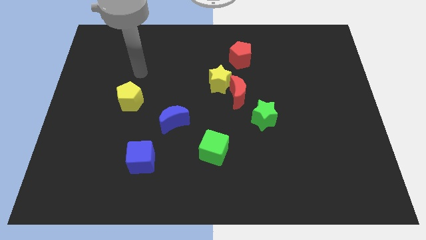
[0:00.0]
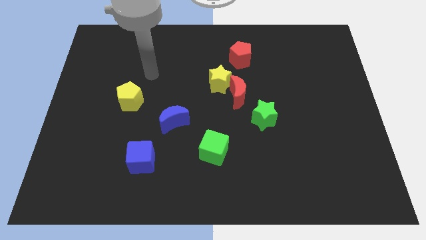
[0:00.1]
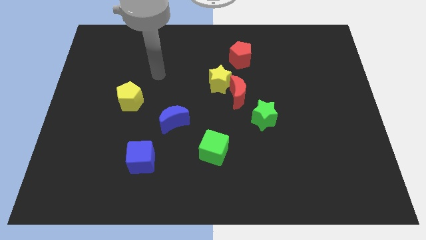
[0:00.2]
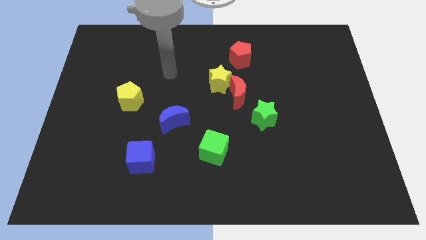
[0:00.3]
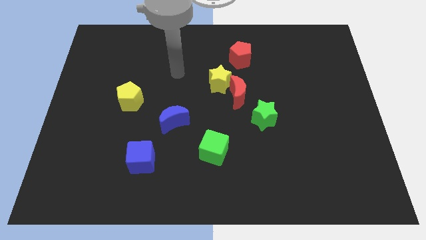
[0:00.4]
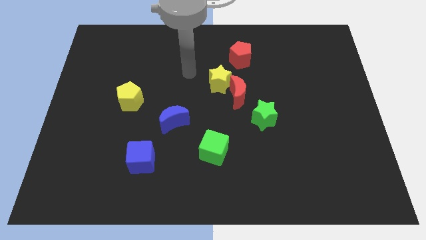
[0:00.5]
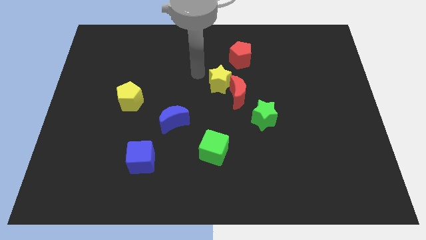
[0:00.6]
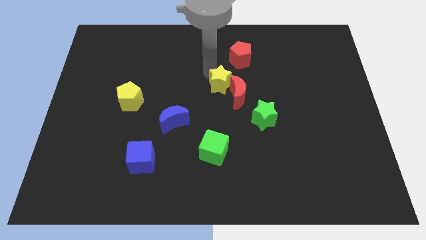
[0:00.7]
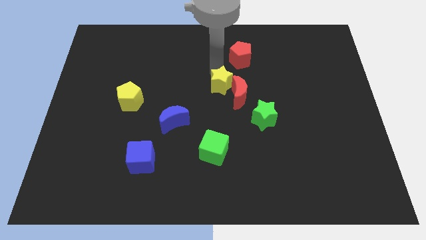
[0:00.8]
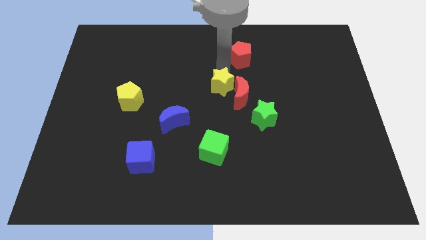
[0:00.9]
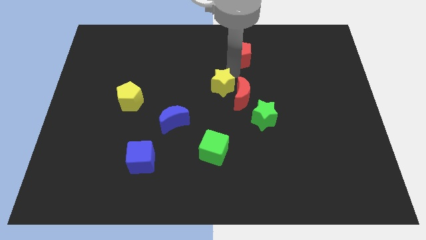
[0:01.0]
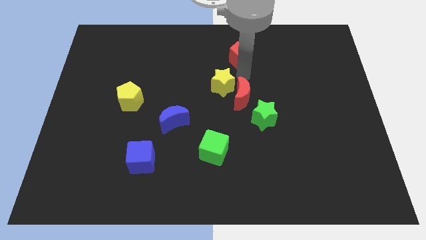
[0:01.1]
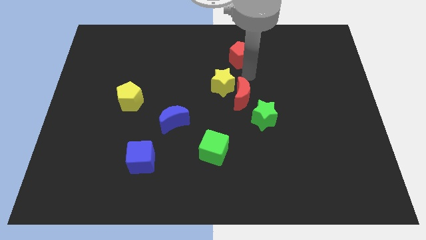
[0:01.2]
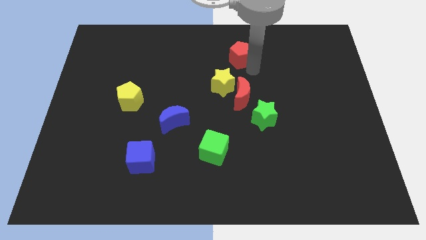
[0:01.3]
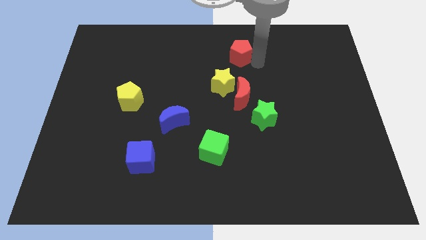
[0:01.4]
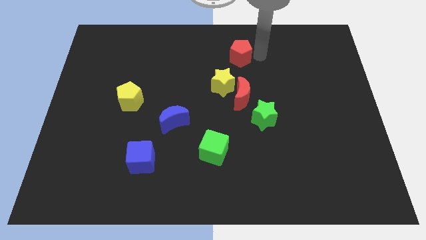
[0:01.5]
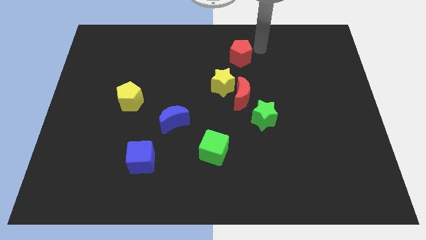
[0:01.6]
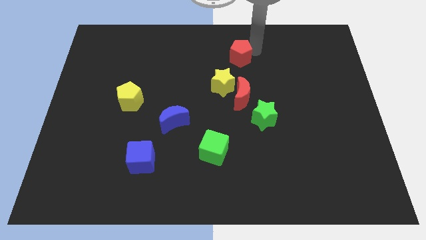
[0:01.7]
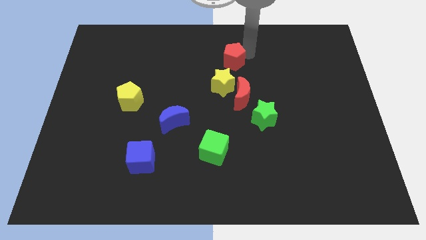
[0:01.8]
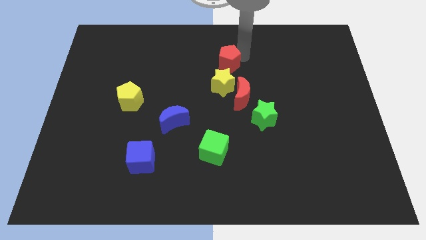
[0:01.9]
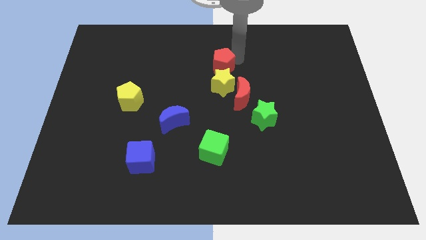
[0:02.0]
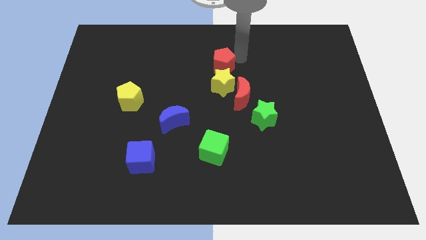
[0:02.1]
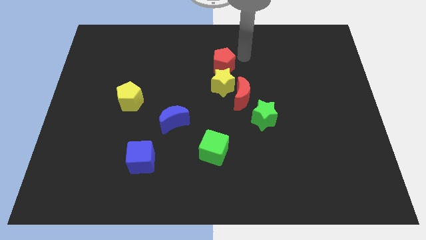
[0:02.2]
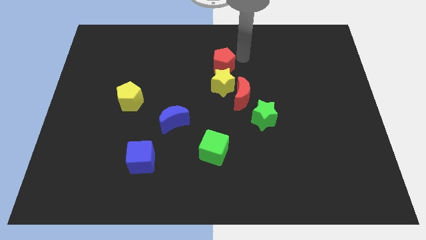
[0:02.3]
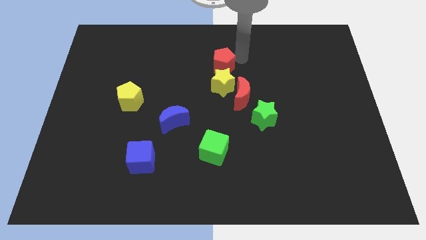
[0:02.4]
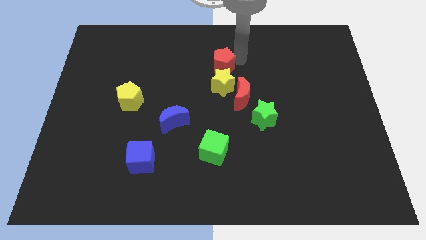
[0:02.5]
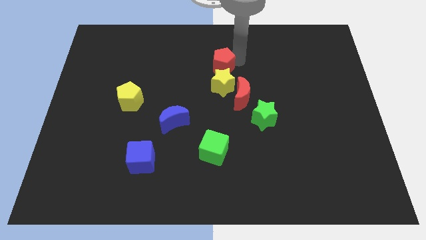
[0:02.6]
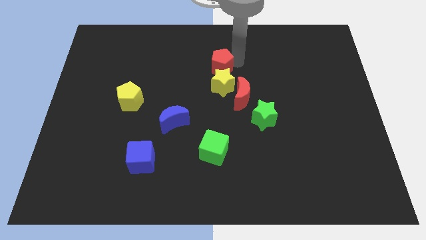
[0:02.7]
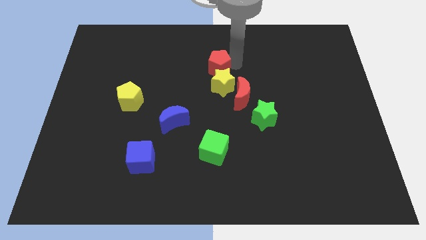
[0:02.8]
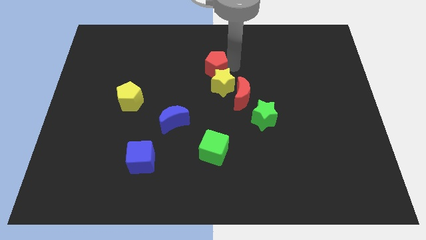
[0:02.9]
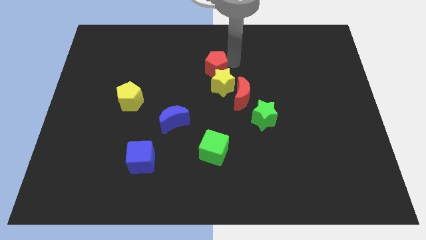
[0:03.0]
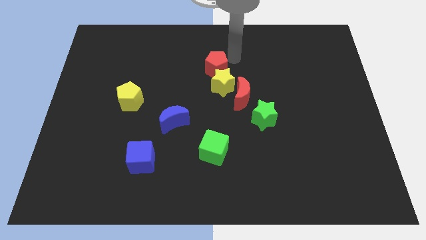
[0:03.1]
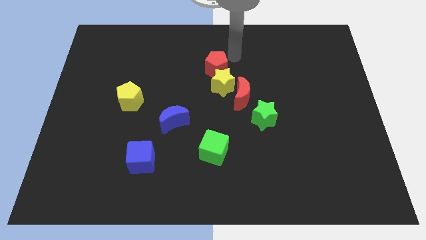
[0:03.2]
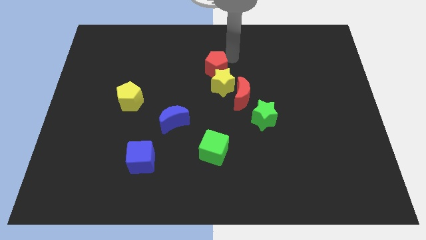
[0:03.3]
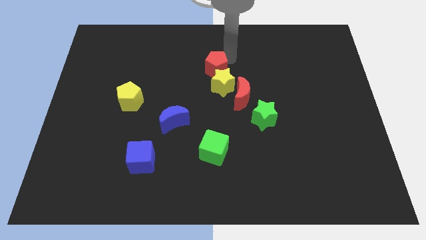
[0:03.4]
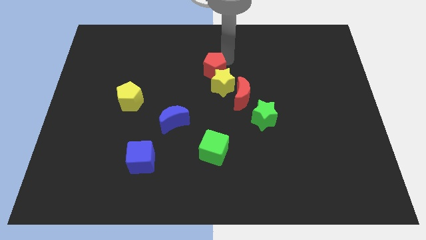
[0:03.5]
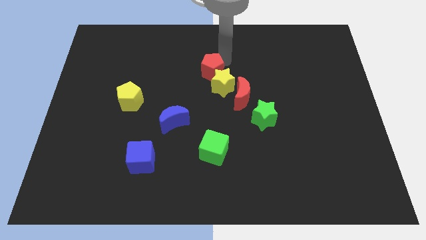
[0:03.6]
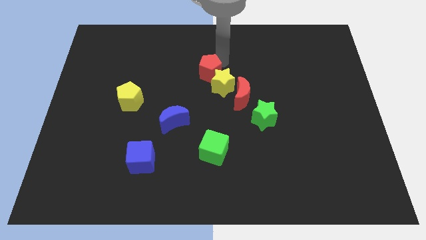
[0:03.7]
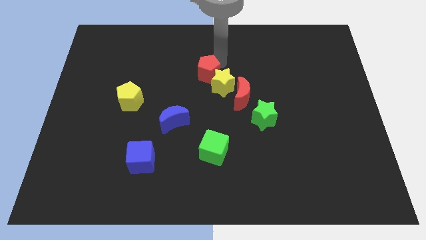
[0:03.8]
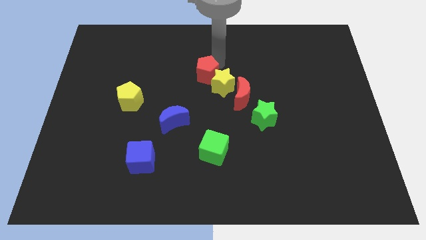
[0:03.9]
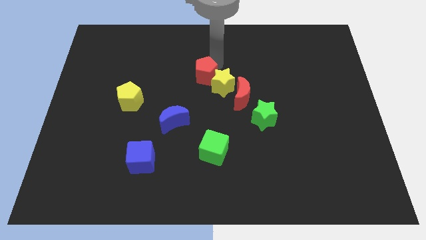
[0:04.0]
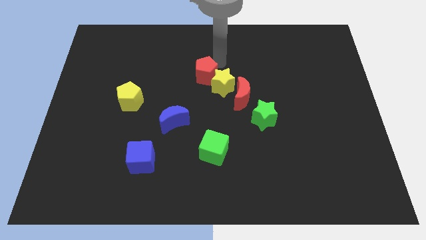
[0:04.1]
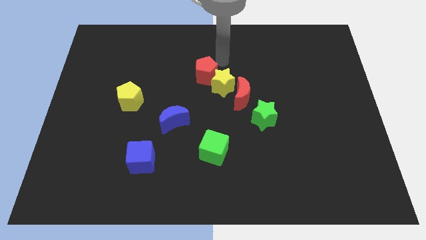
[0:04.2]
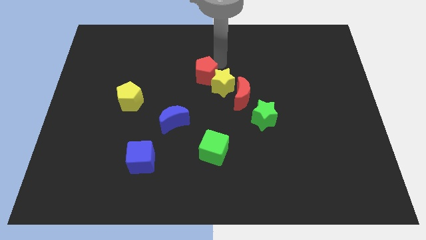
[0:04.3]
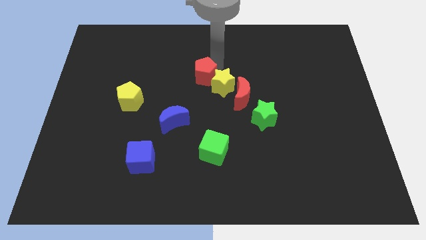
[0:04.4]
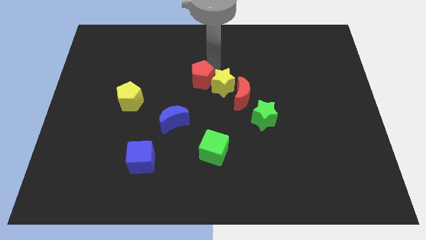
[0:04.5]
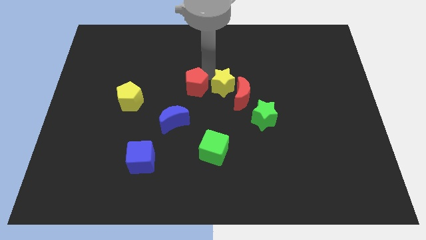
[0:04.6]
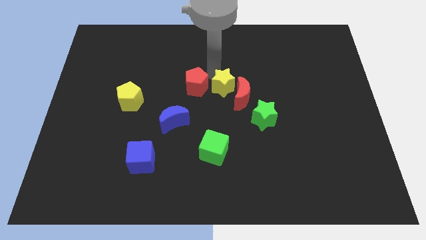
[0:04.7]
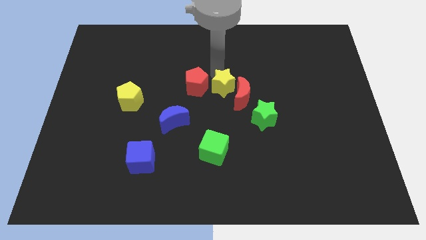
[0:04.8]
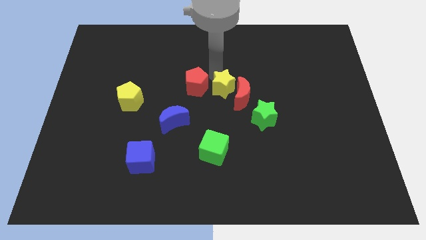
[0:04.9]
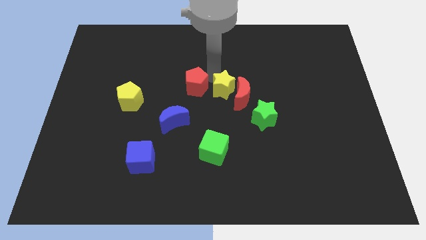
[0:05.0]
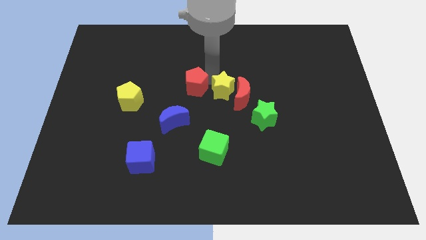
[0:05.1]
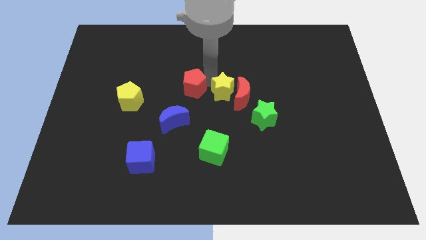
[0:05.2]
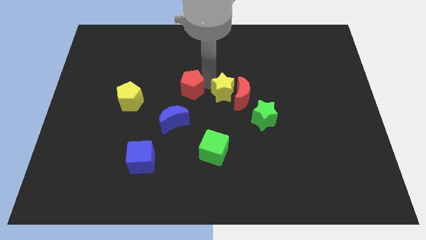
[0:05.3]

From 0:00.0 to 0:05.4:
put the red pentagon right of the yellow pentagon

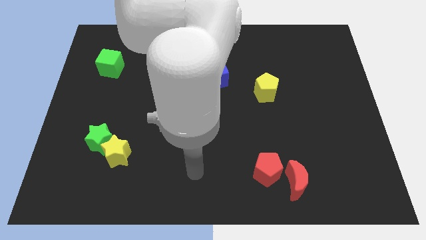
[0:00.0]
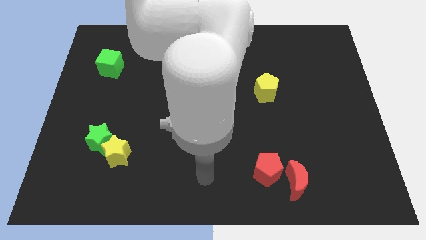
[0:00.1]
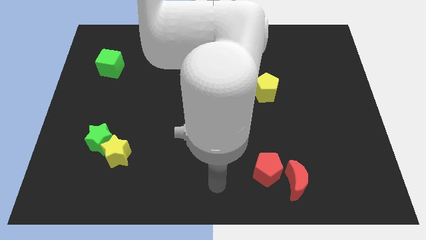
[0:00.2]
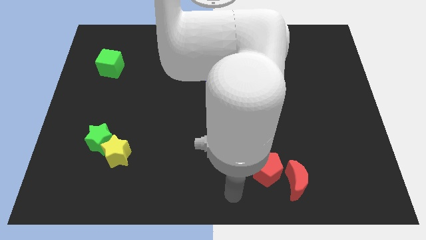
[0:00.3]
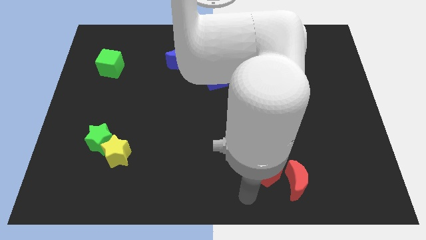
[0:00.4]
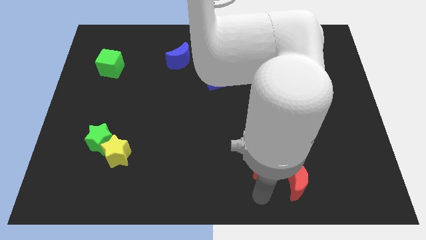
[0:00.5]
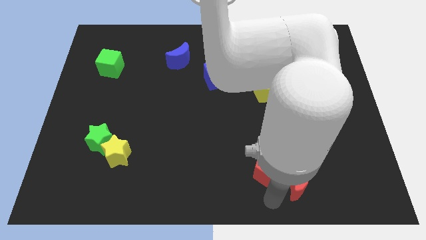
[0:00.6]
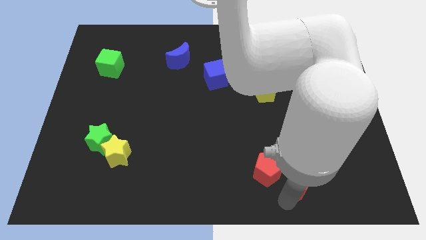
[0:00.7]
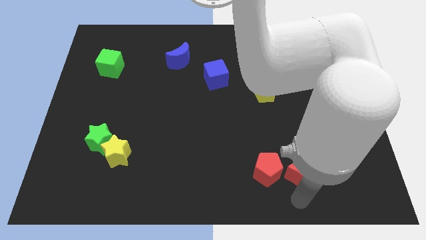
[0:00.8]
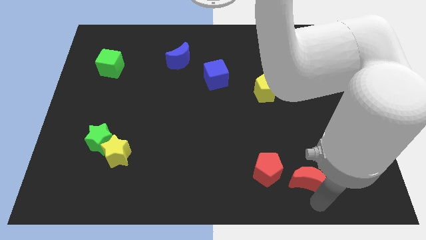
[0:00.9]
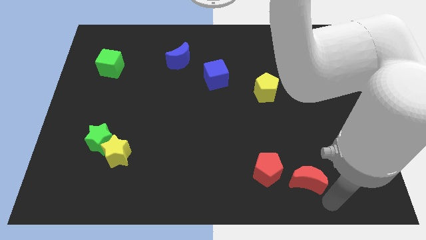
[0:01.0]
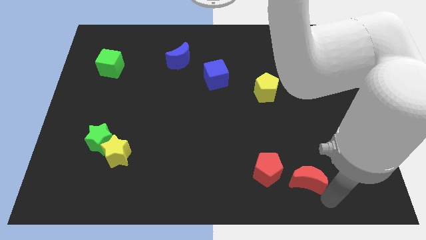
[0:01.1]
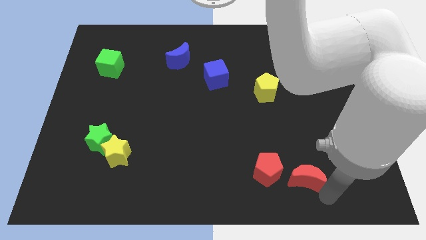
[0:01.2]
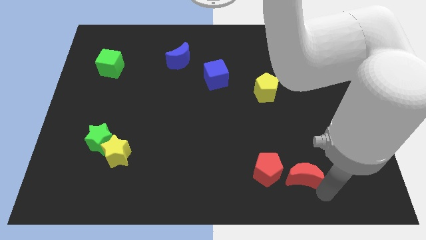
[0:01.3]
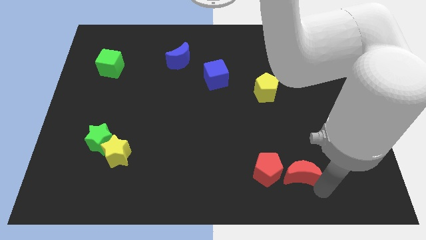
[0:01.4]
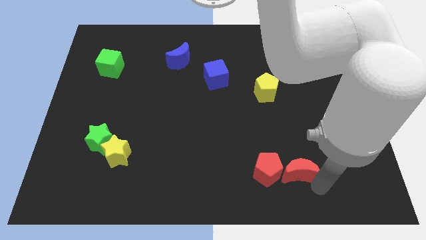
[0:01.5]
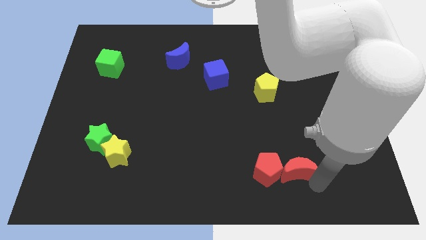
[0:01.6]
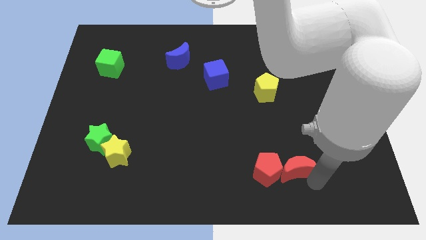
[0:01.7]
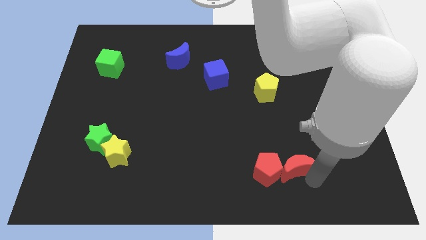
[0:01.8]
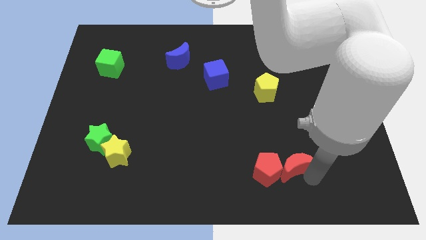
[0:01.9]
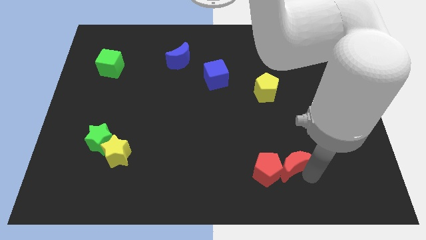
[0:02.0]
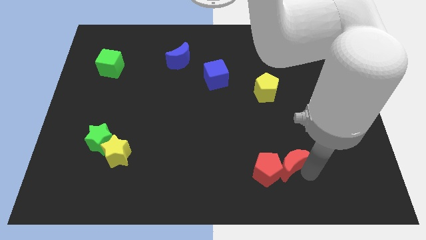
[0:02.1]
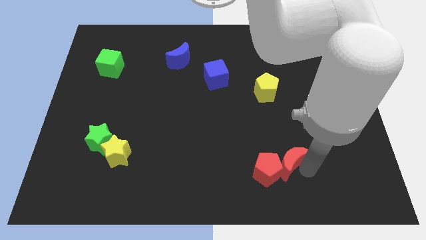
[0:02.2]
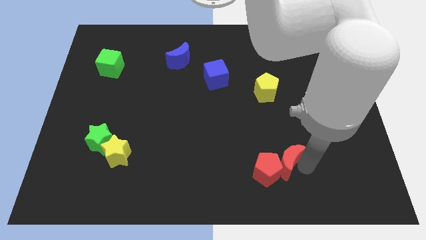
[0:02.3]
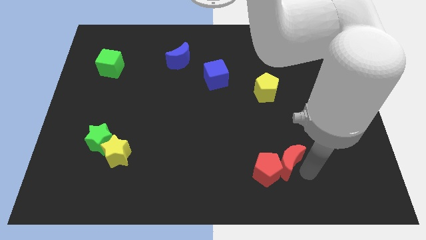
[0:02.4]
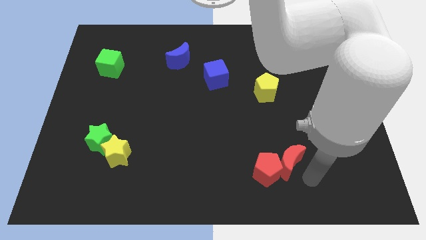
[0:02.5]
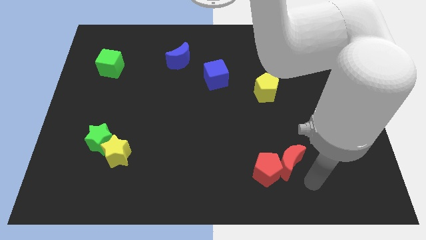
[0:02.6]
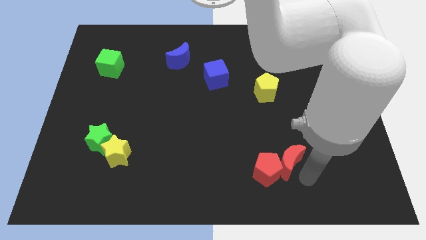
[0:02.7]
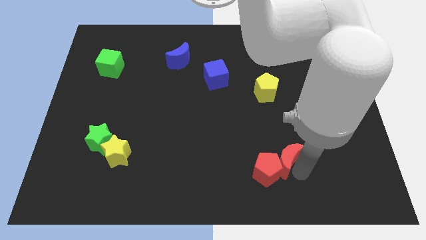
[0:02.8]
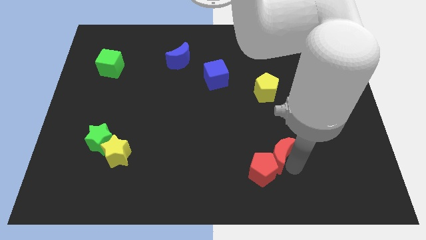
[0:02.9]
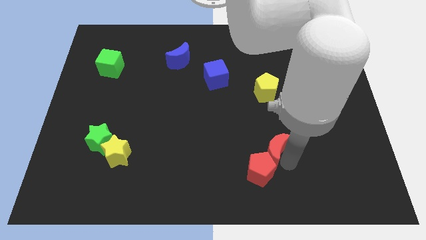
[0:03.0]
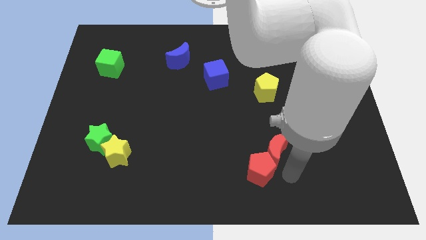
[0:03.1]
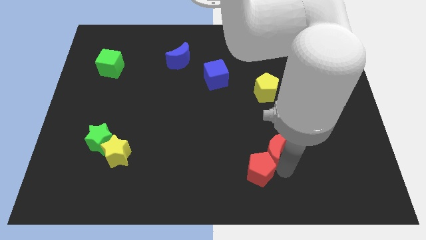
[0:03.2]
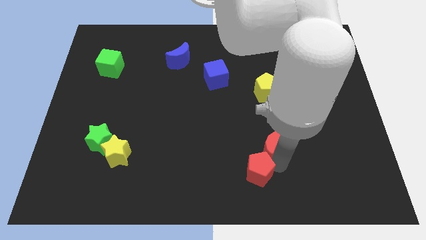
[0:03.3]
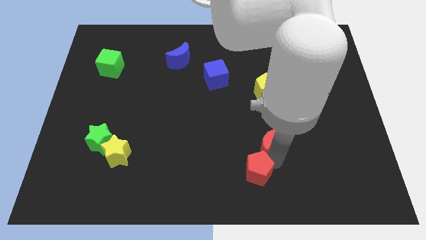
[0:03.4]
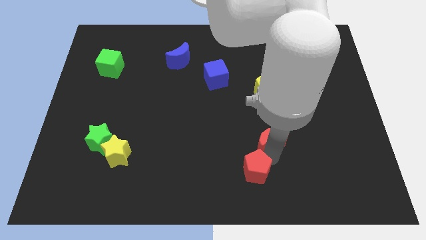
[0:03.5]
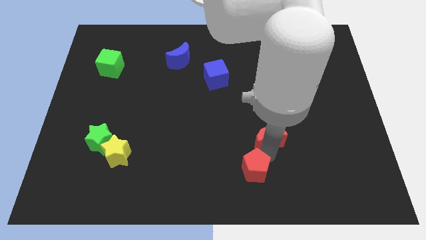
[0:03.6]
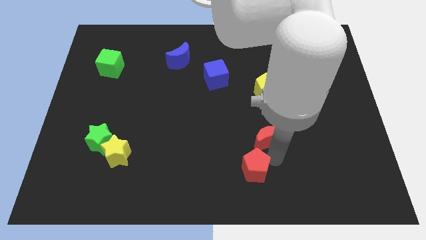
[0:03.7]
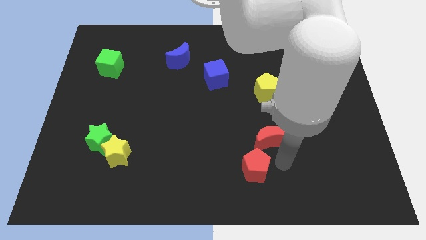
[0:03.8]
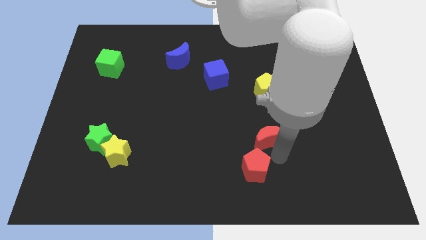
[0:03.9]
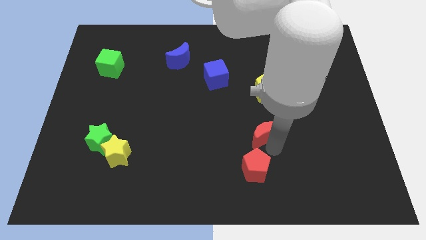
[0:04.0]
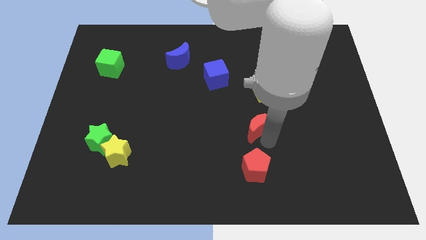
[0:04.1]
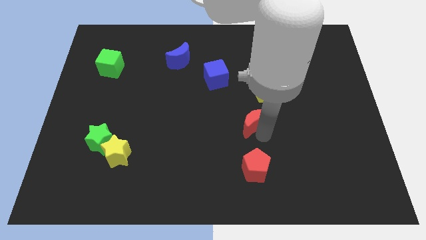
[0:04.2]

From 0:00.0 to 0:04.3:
put the red moon to the bottom left side of the yellow pentagon
